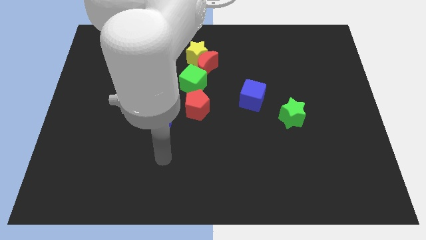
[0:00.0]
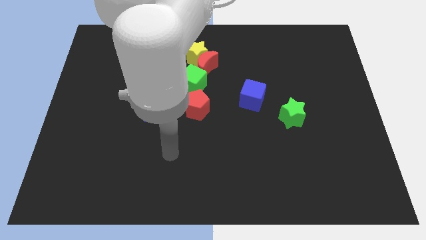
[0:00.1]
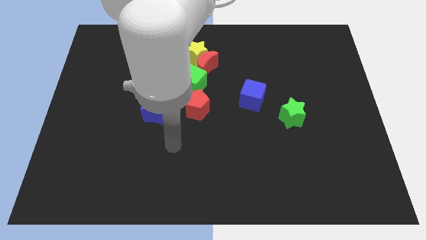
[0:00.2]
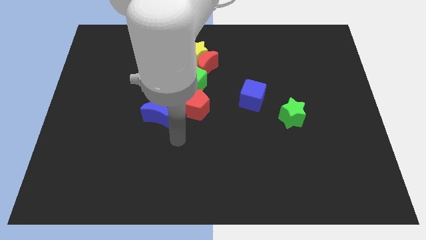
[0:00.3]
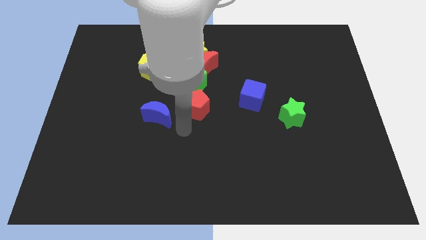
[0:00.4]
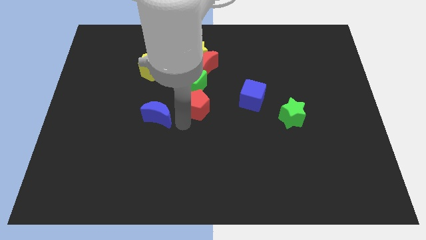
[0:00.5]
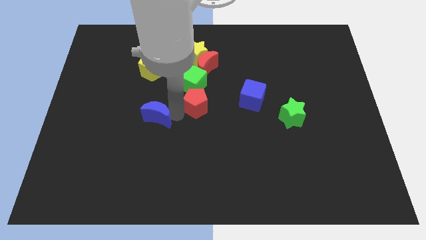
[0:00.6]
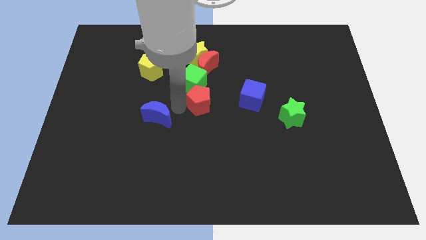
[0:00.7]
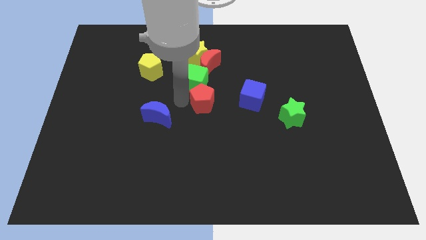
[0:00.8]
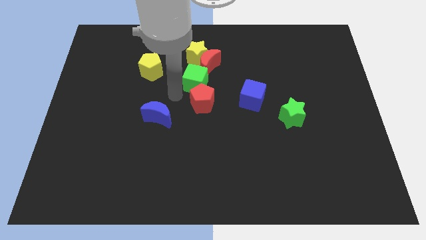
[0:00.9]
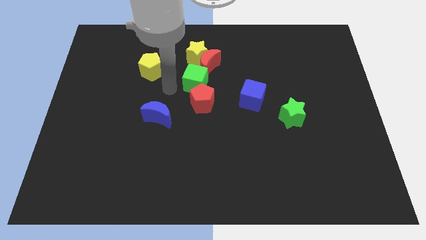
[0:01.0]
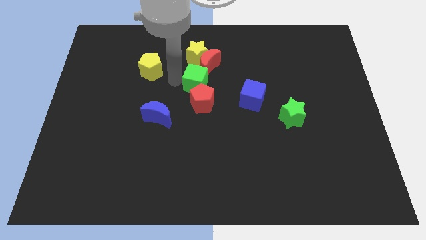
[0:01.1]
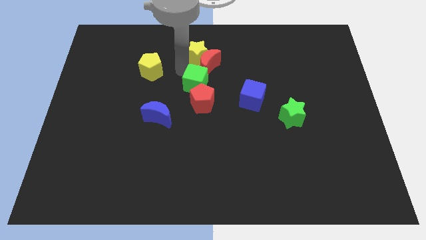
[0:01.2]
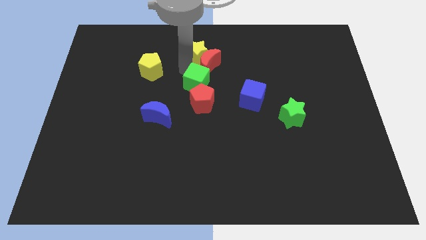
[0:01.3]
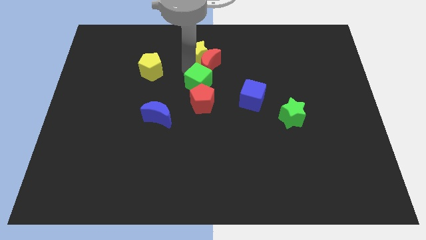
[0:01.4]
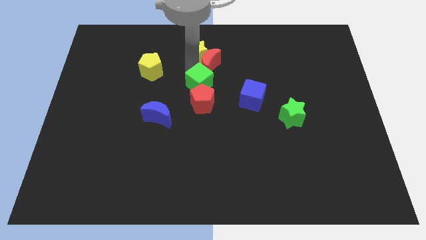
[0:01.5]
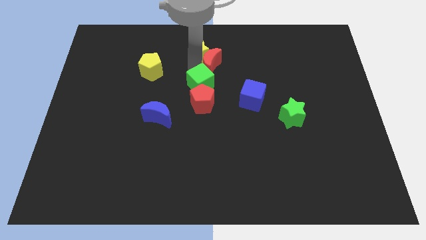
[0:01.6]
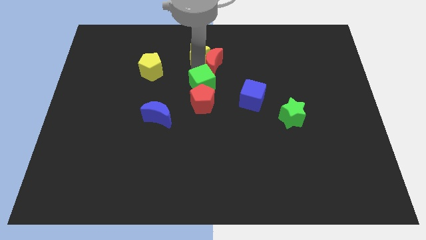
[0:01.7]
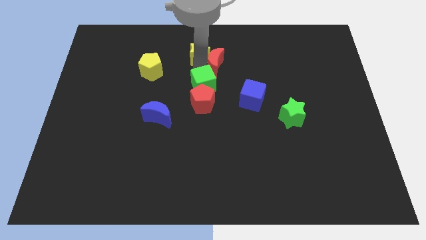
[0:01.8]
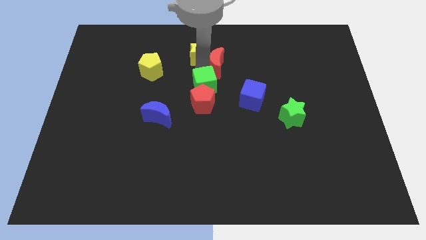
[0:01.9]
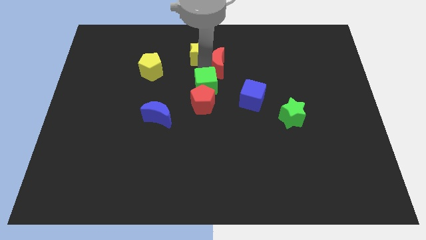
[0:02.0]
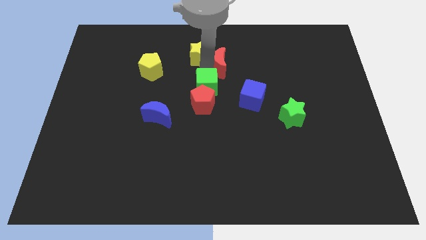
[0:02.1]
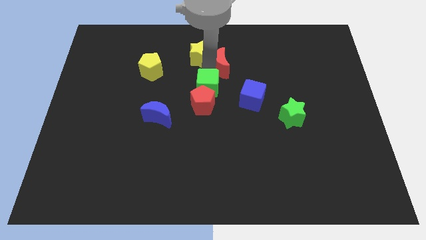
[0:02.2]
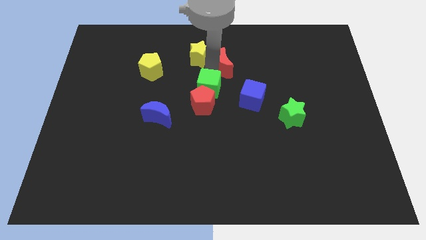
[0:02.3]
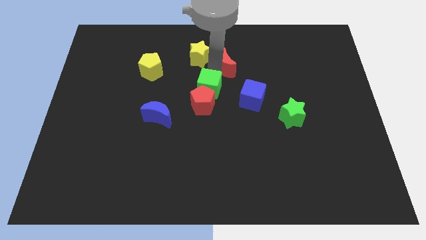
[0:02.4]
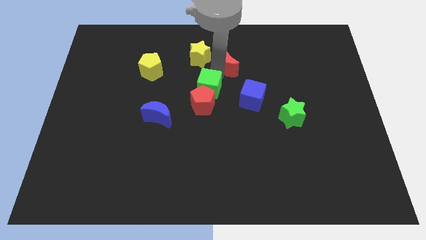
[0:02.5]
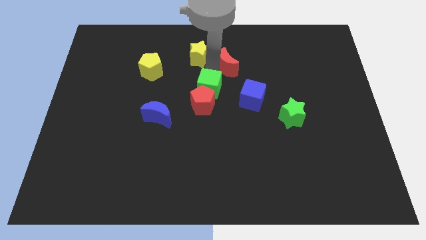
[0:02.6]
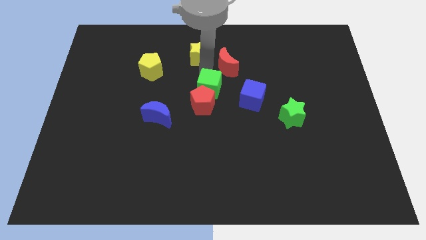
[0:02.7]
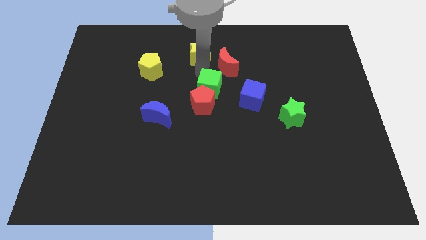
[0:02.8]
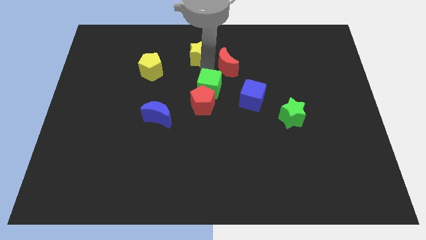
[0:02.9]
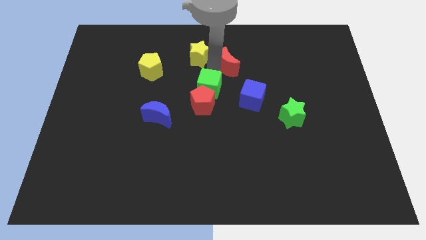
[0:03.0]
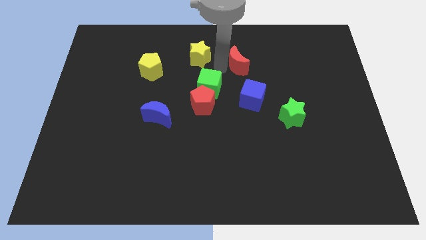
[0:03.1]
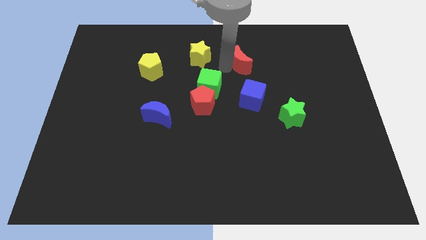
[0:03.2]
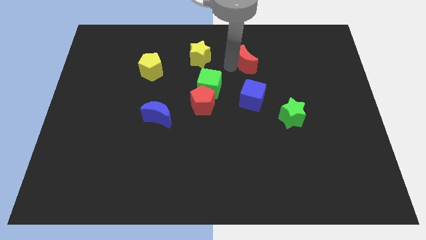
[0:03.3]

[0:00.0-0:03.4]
move the red moon away from the yellow star and green cube

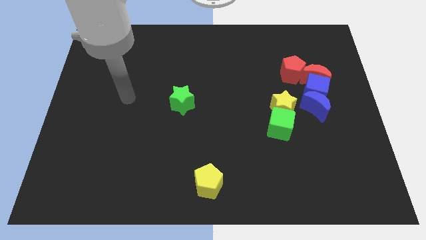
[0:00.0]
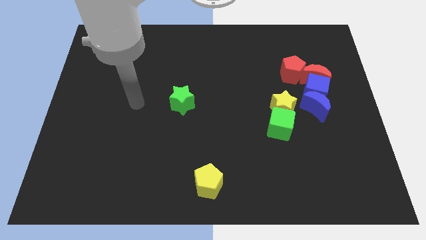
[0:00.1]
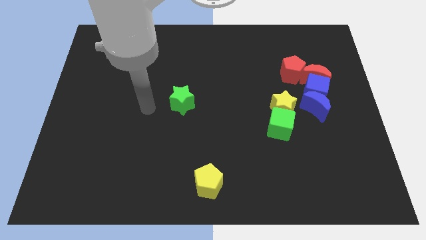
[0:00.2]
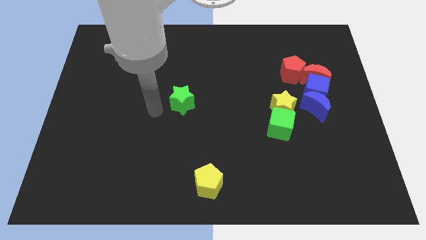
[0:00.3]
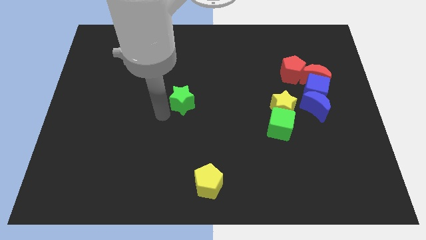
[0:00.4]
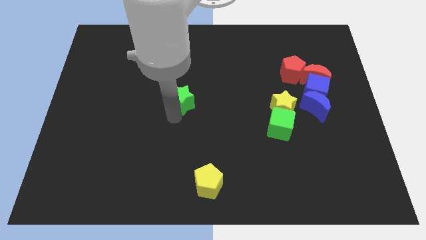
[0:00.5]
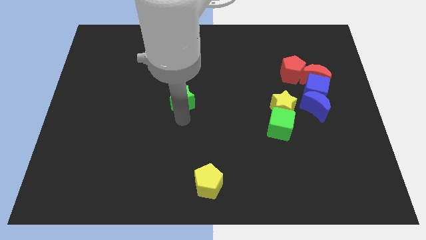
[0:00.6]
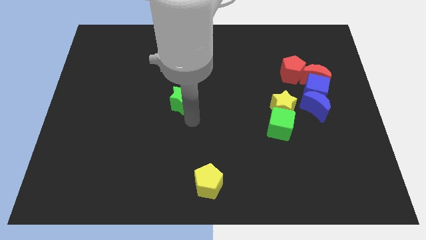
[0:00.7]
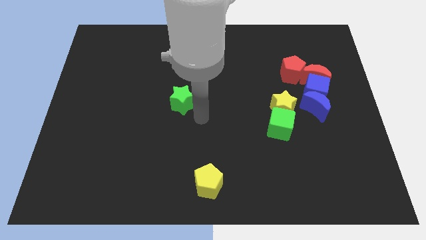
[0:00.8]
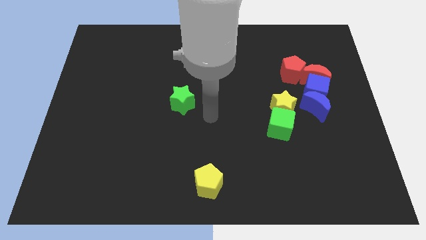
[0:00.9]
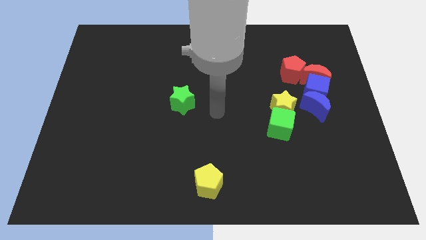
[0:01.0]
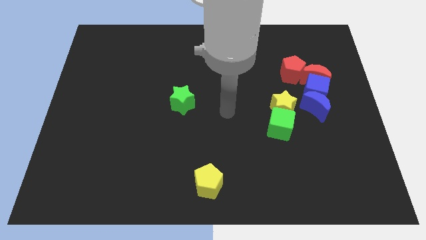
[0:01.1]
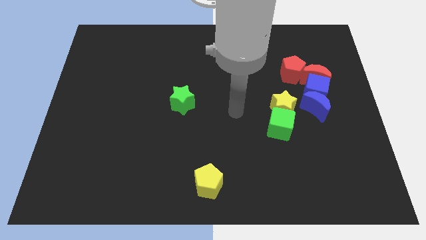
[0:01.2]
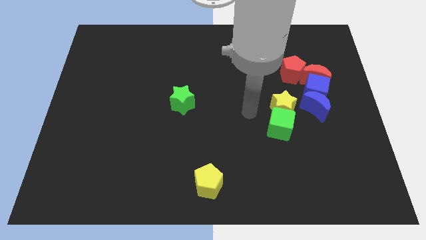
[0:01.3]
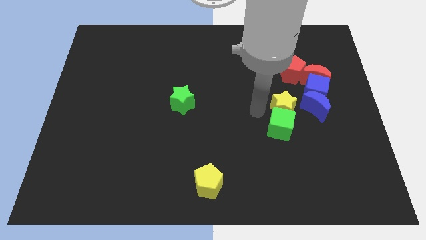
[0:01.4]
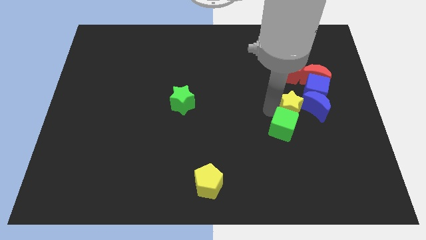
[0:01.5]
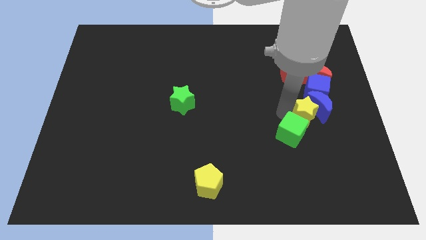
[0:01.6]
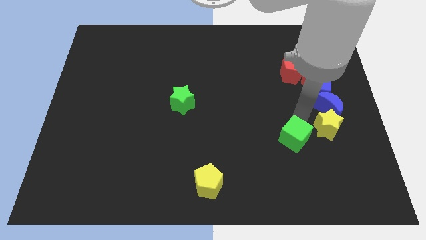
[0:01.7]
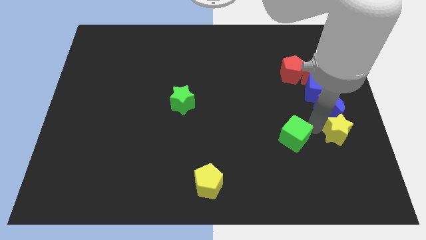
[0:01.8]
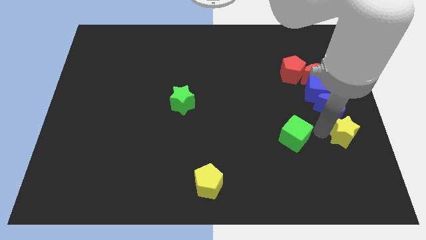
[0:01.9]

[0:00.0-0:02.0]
move the green cube away from the yellow star

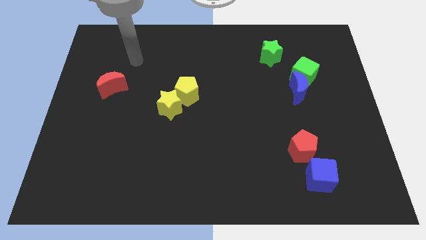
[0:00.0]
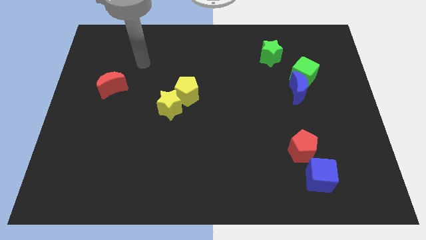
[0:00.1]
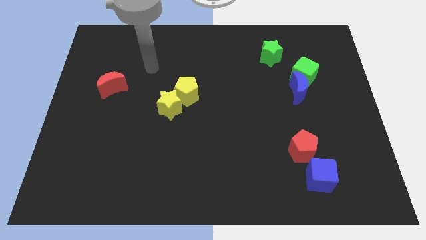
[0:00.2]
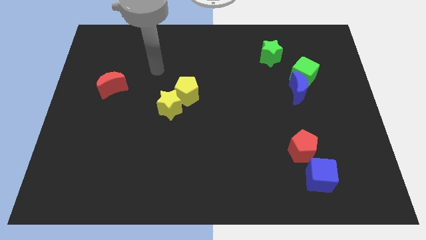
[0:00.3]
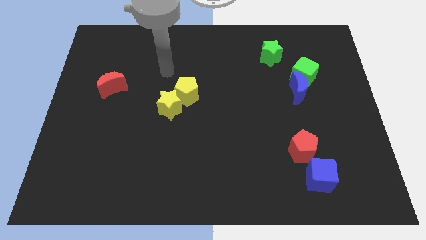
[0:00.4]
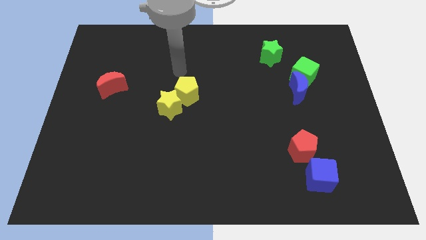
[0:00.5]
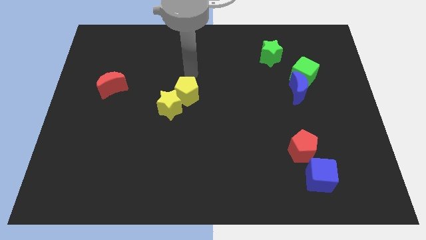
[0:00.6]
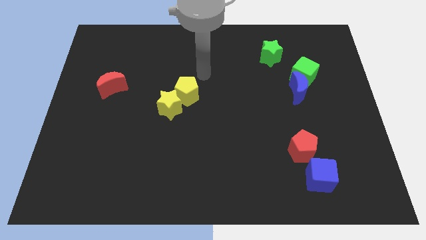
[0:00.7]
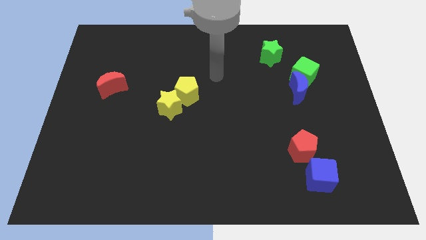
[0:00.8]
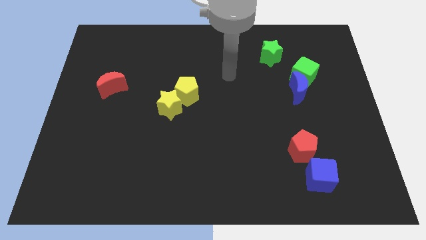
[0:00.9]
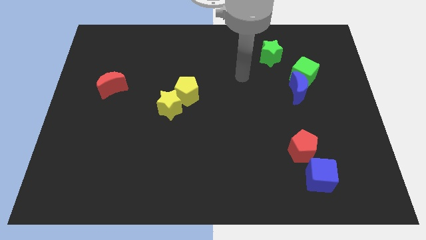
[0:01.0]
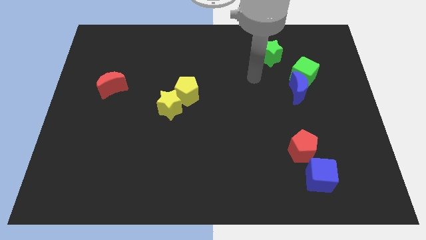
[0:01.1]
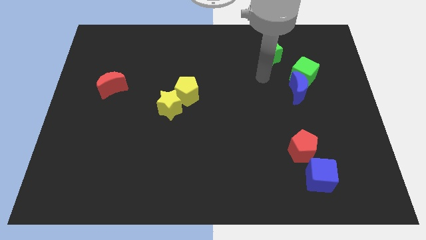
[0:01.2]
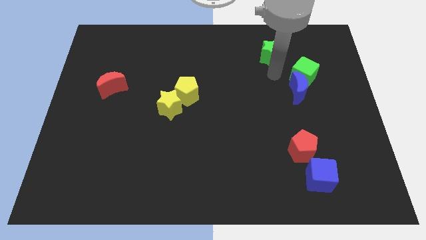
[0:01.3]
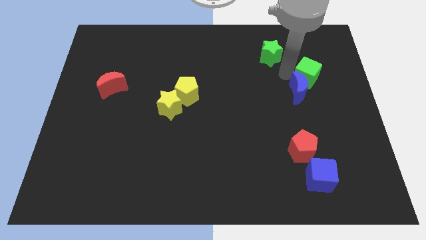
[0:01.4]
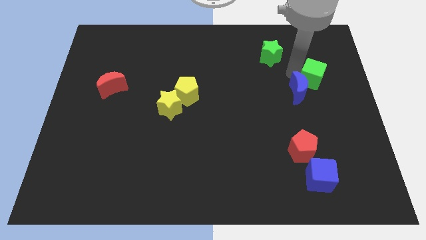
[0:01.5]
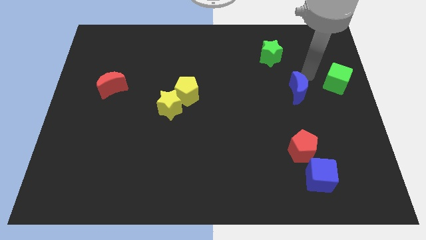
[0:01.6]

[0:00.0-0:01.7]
pull the blue moon apart from the green cube

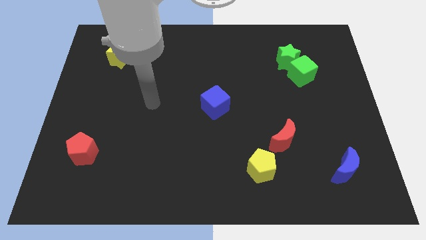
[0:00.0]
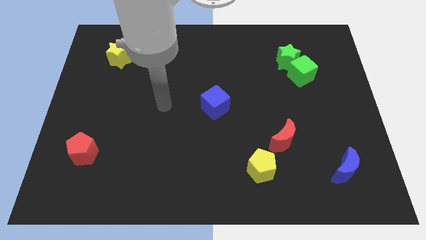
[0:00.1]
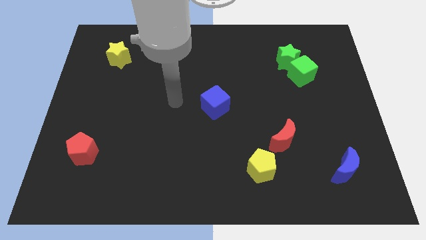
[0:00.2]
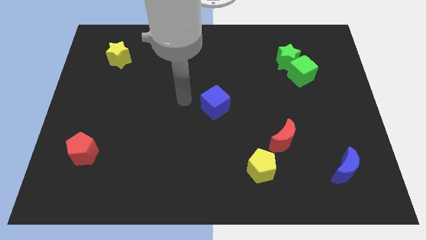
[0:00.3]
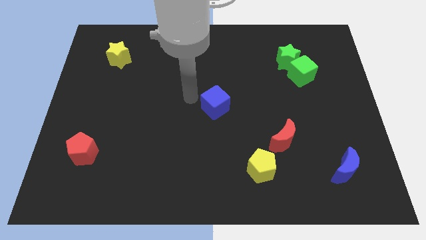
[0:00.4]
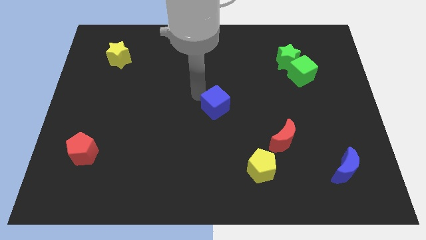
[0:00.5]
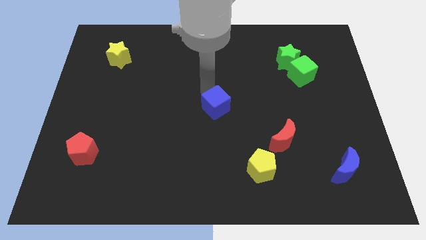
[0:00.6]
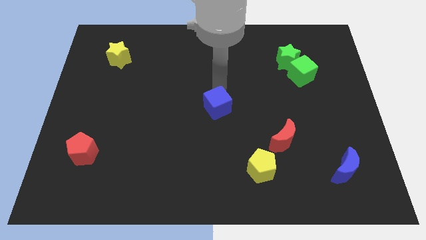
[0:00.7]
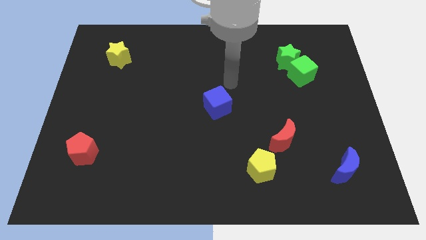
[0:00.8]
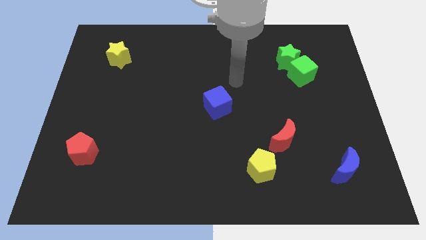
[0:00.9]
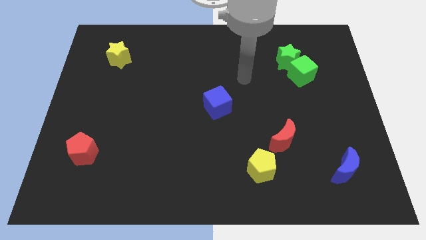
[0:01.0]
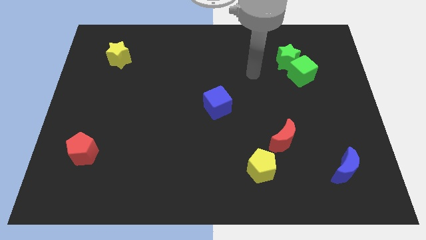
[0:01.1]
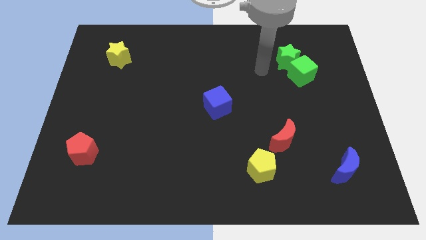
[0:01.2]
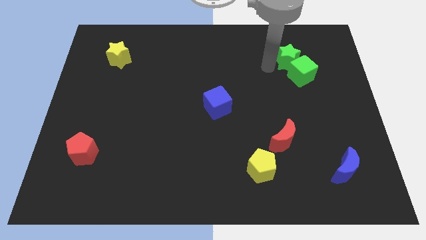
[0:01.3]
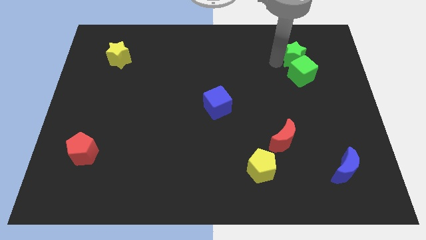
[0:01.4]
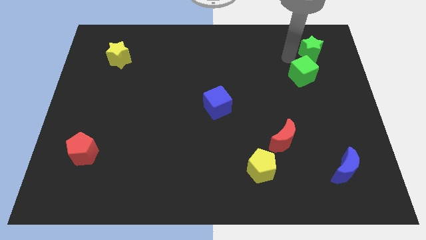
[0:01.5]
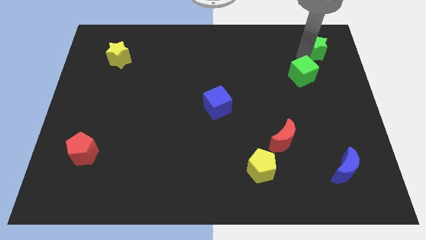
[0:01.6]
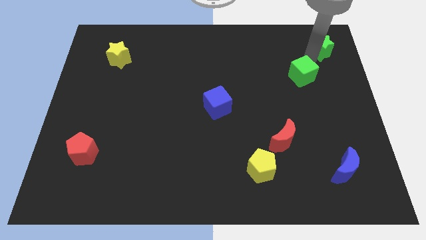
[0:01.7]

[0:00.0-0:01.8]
pull the green cube apart from the green star

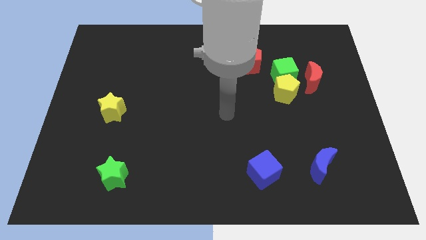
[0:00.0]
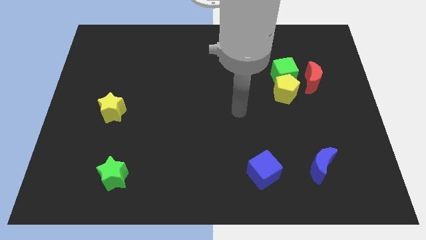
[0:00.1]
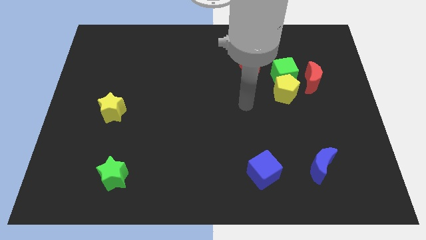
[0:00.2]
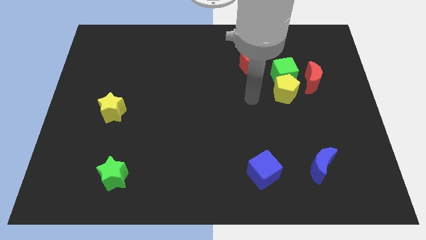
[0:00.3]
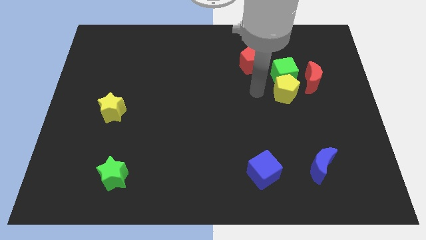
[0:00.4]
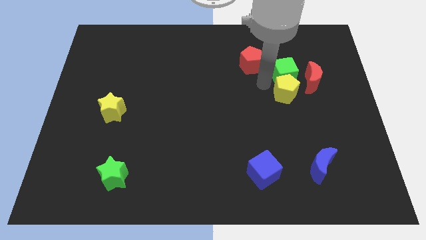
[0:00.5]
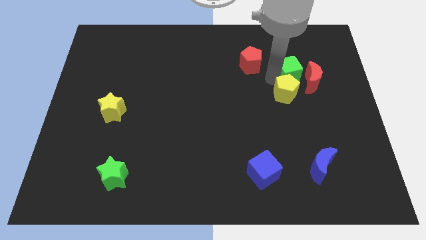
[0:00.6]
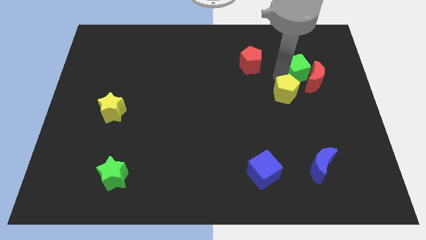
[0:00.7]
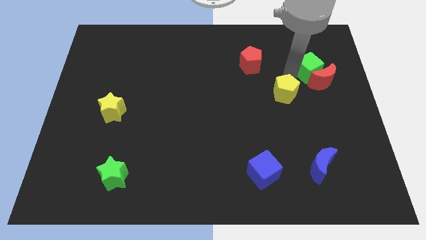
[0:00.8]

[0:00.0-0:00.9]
move the yellow pentagon away from the green cube and red moon
